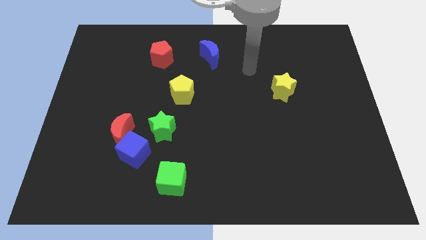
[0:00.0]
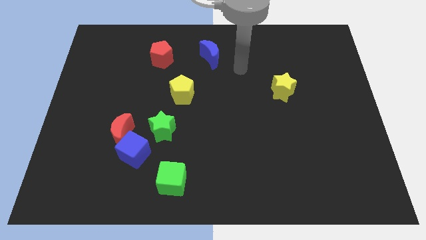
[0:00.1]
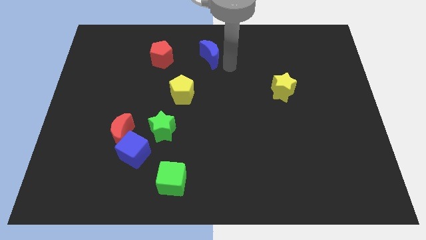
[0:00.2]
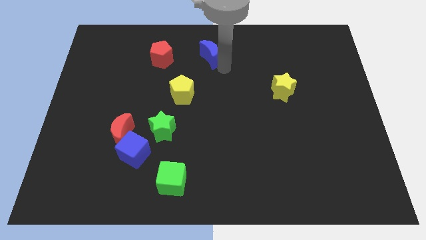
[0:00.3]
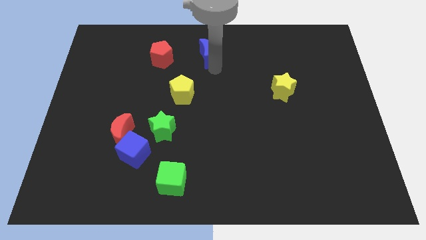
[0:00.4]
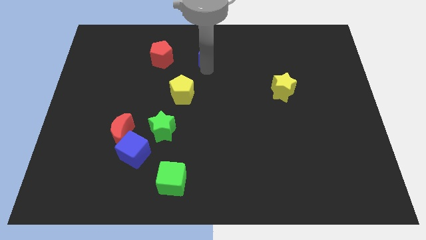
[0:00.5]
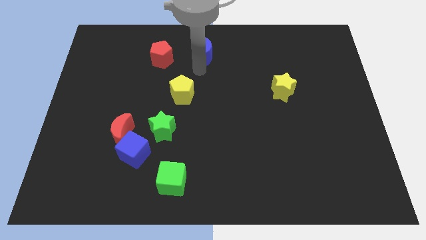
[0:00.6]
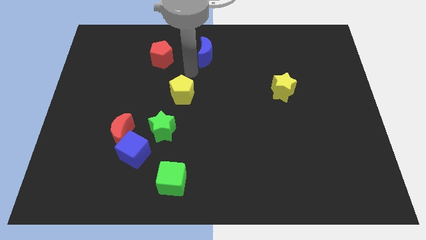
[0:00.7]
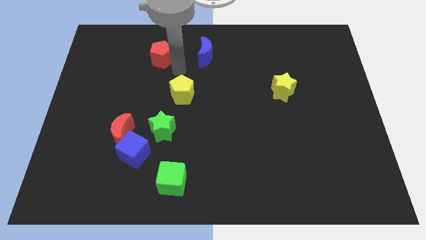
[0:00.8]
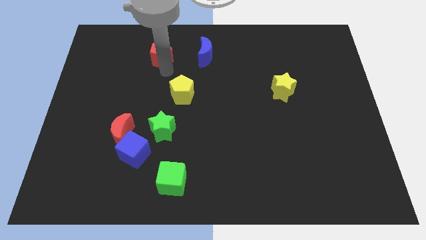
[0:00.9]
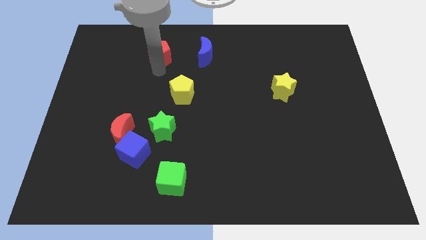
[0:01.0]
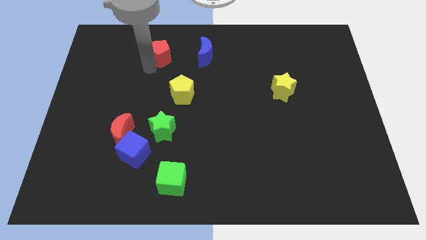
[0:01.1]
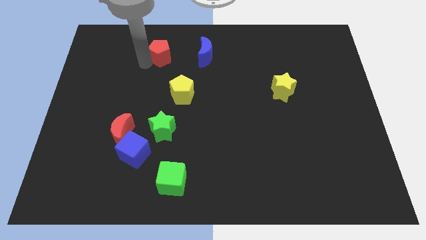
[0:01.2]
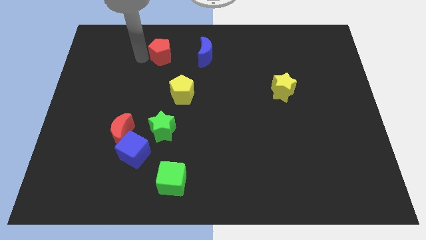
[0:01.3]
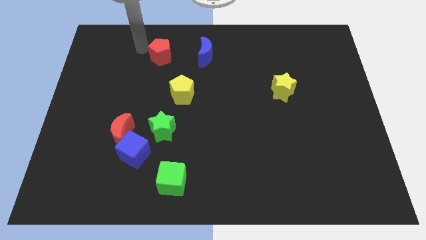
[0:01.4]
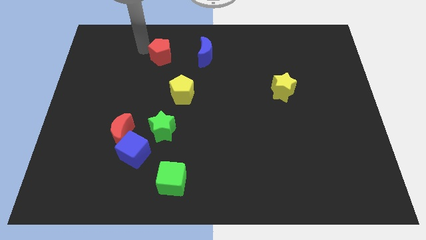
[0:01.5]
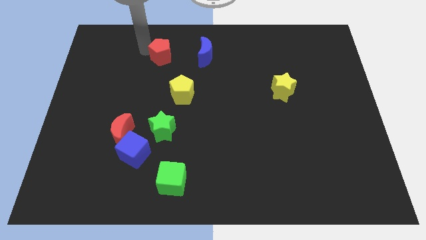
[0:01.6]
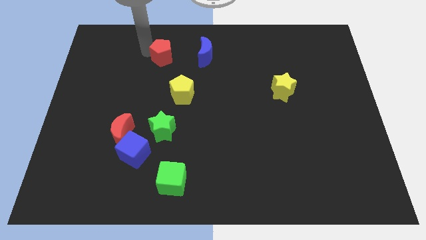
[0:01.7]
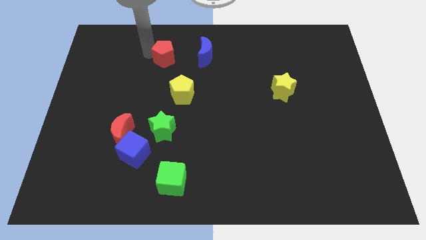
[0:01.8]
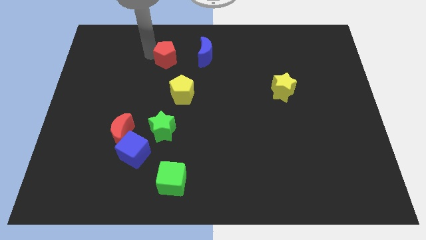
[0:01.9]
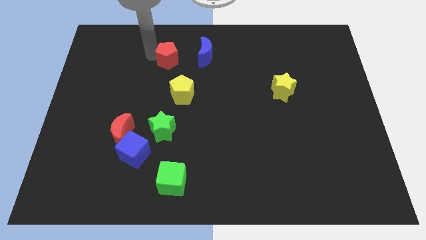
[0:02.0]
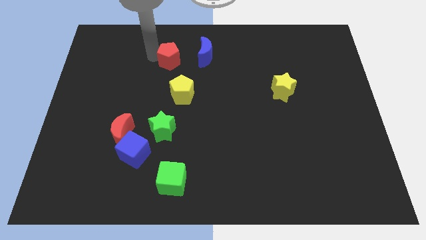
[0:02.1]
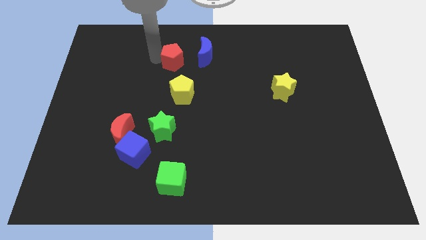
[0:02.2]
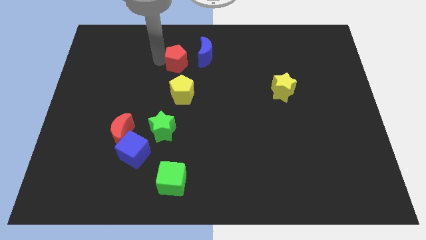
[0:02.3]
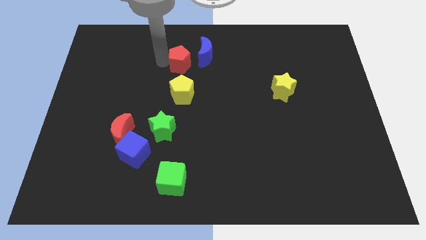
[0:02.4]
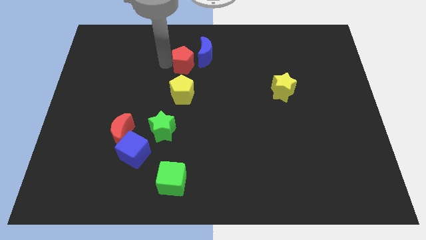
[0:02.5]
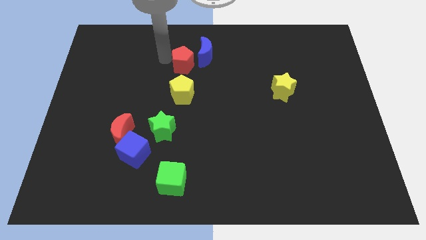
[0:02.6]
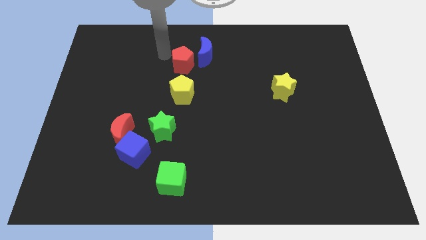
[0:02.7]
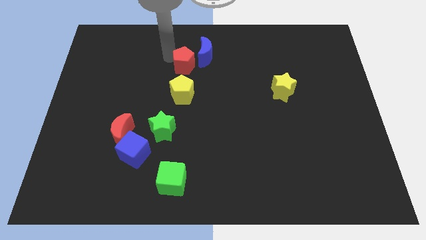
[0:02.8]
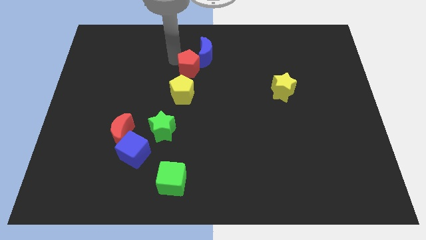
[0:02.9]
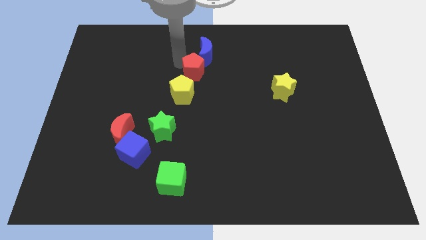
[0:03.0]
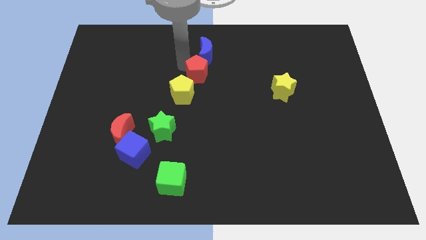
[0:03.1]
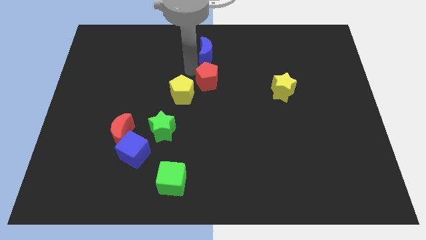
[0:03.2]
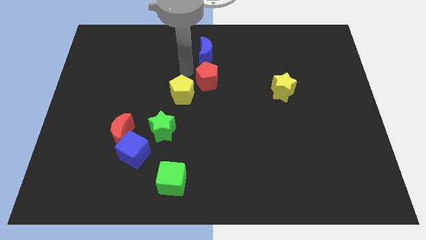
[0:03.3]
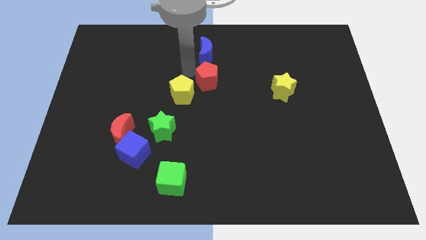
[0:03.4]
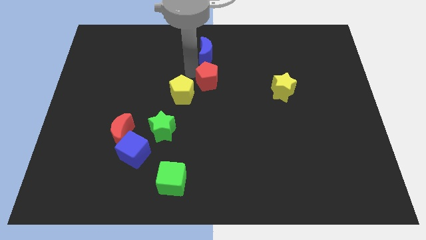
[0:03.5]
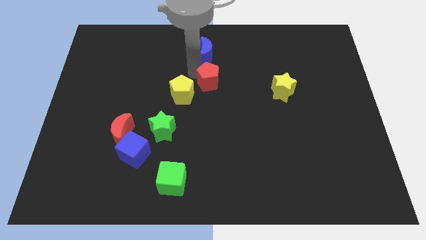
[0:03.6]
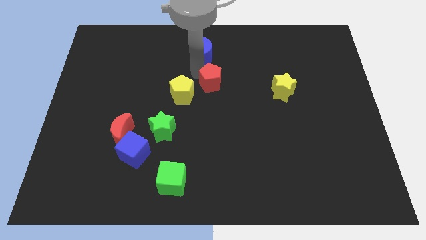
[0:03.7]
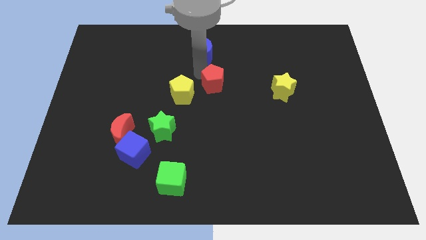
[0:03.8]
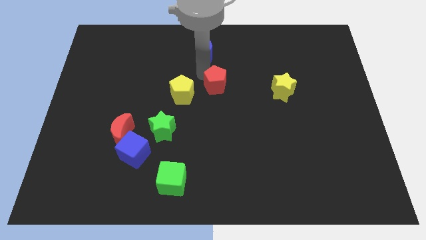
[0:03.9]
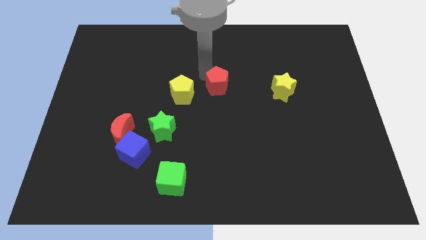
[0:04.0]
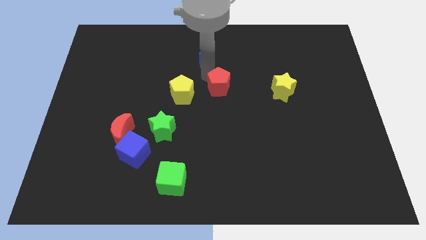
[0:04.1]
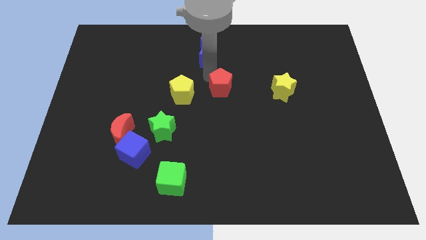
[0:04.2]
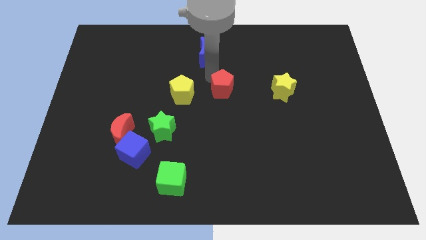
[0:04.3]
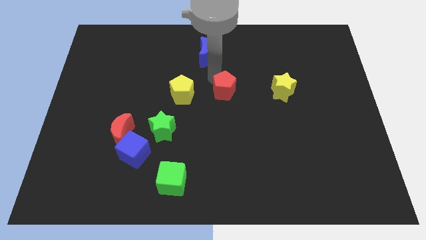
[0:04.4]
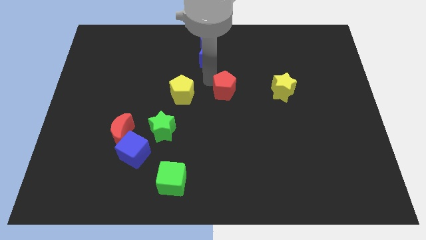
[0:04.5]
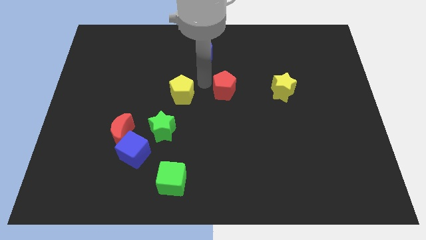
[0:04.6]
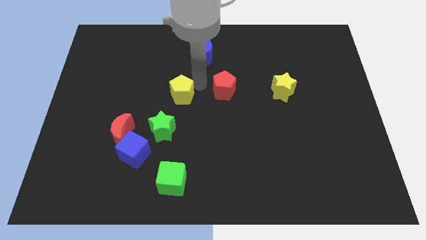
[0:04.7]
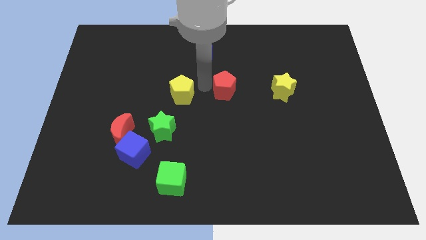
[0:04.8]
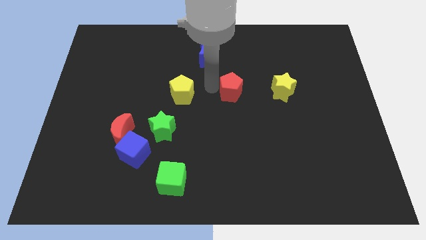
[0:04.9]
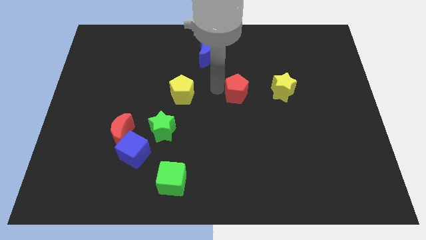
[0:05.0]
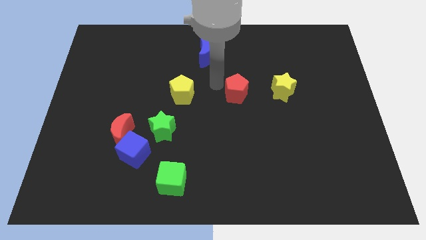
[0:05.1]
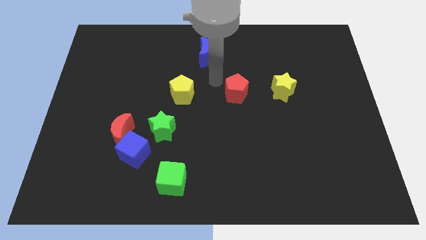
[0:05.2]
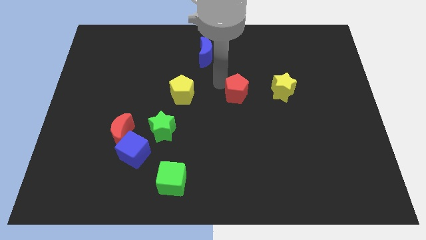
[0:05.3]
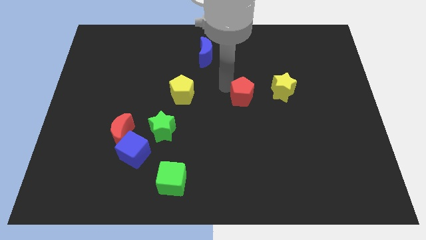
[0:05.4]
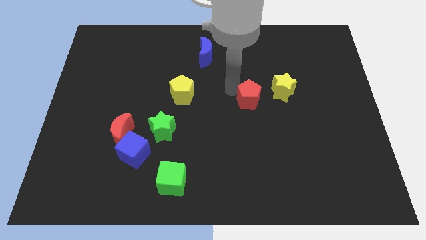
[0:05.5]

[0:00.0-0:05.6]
slide the red pentagon to the bottom left side of the yellow star

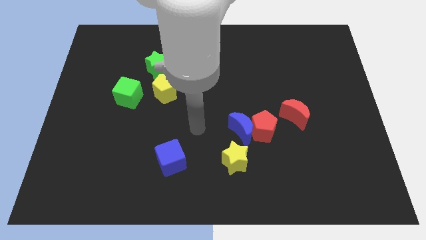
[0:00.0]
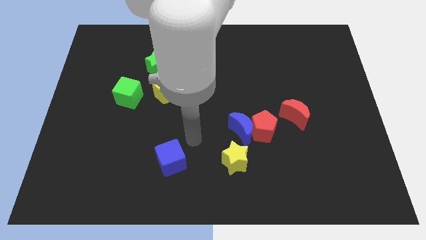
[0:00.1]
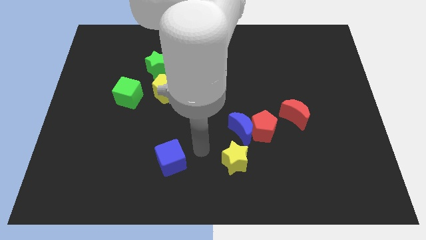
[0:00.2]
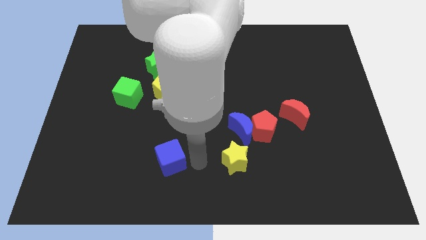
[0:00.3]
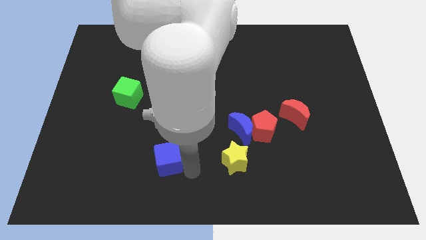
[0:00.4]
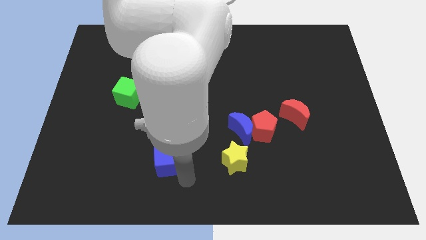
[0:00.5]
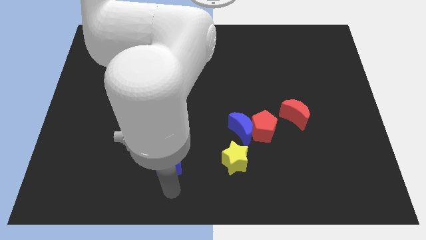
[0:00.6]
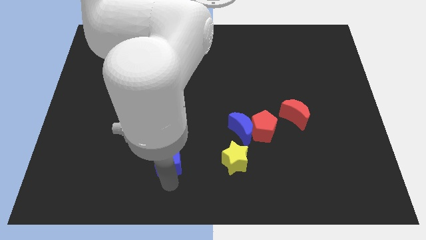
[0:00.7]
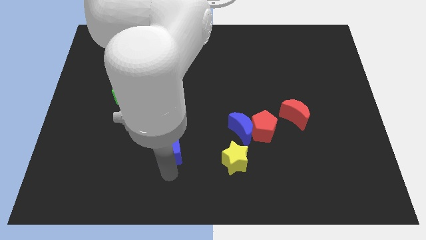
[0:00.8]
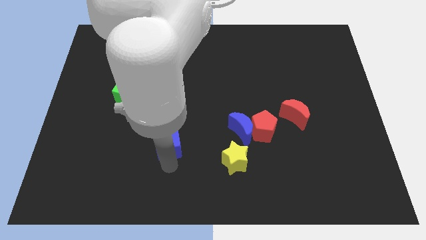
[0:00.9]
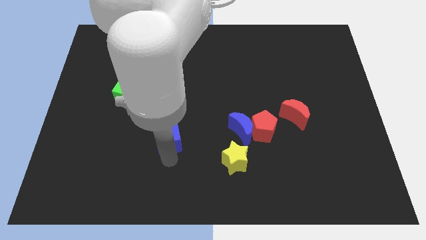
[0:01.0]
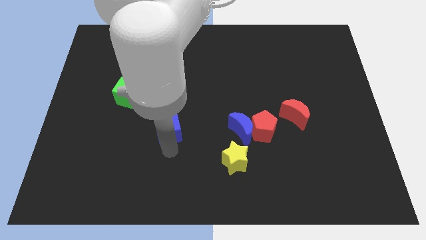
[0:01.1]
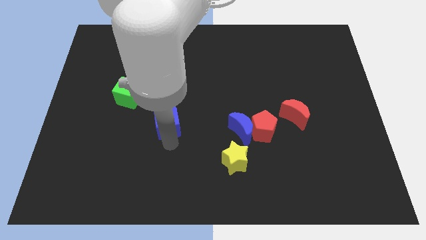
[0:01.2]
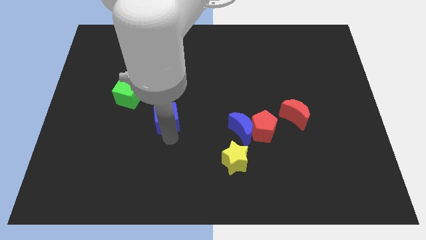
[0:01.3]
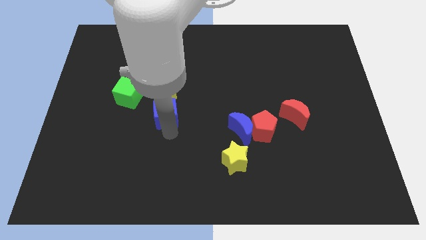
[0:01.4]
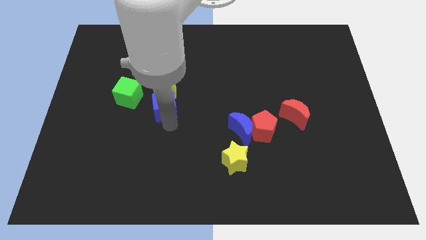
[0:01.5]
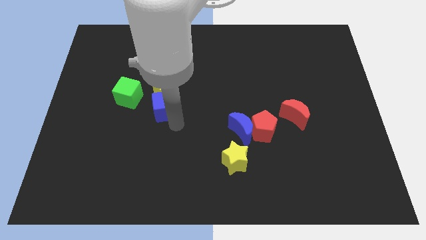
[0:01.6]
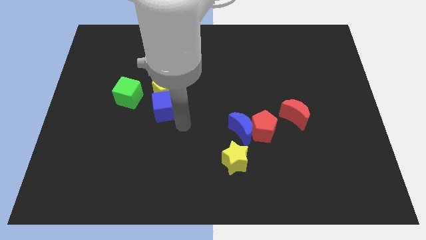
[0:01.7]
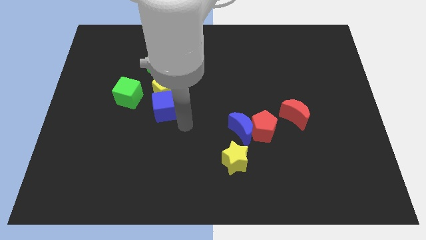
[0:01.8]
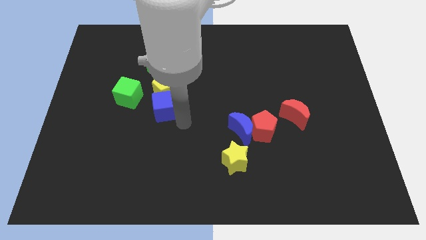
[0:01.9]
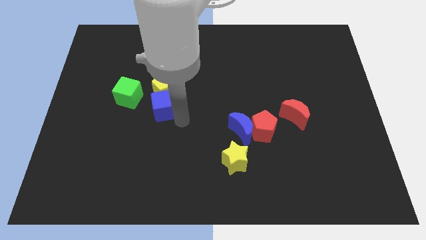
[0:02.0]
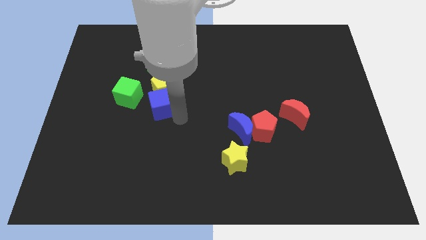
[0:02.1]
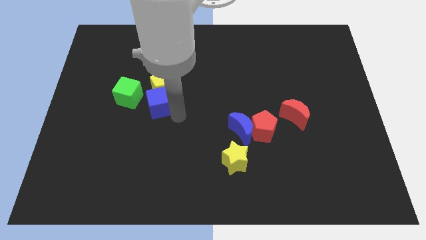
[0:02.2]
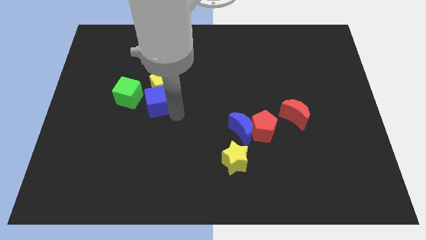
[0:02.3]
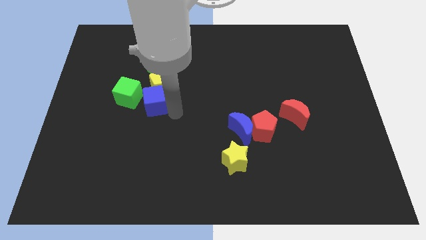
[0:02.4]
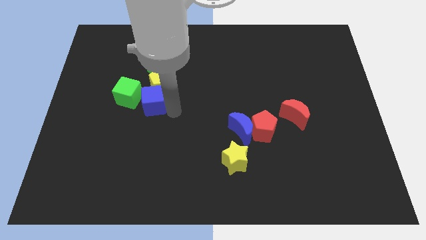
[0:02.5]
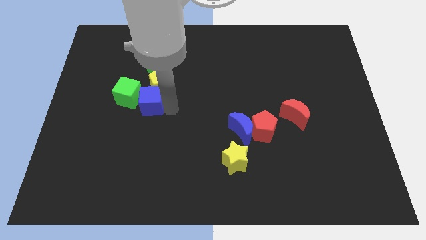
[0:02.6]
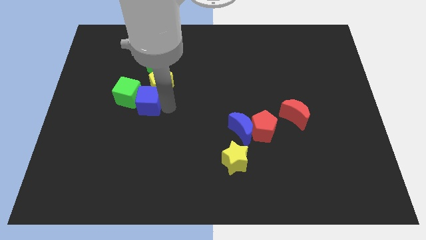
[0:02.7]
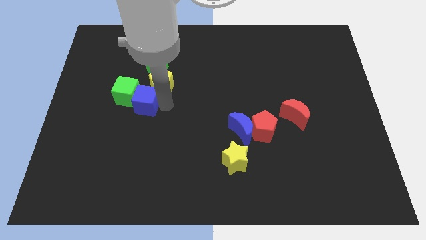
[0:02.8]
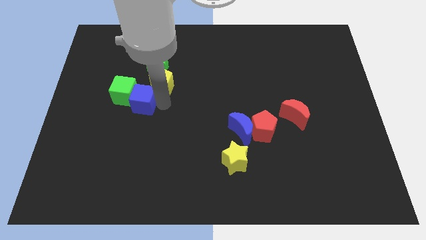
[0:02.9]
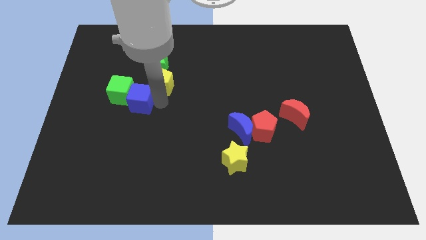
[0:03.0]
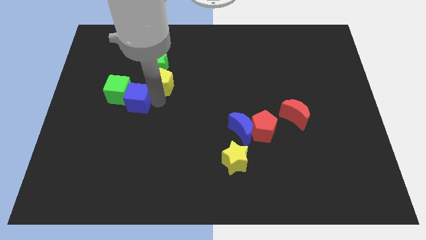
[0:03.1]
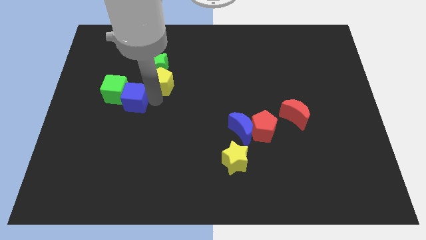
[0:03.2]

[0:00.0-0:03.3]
move the blue cube diagonally down and to the left of the green star
